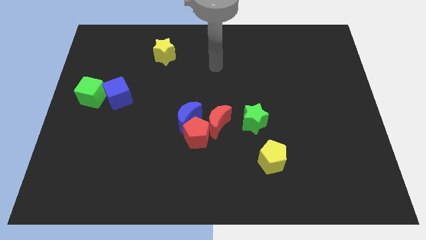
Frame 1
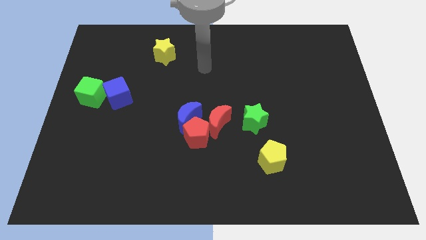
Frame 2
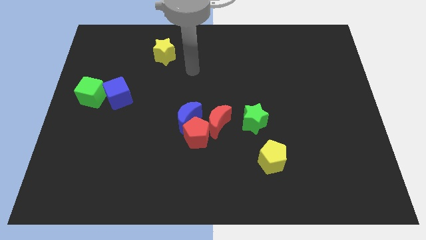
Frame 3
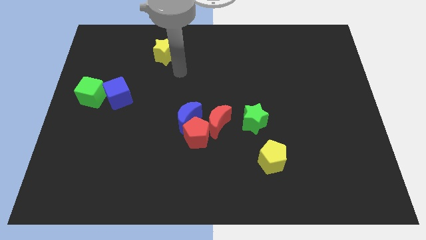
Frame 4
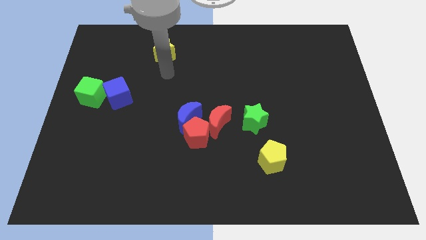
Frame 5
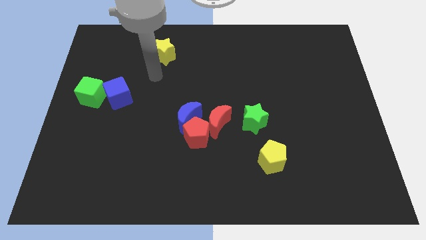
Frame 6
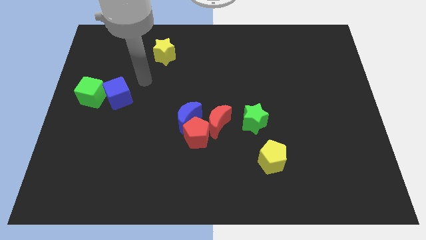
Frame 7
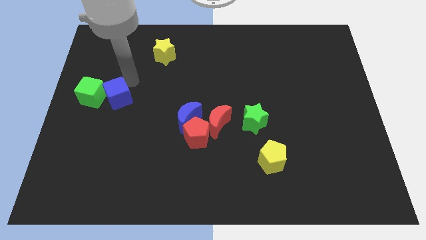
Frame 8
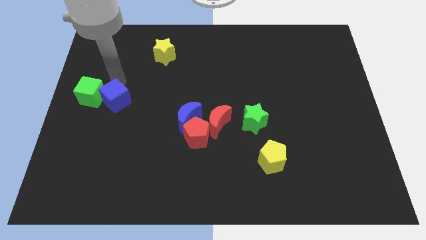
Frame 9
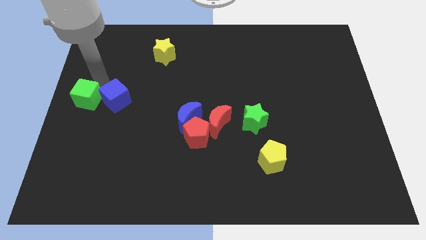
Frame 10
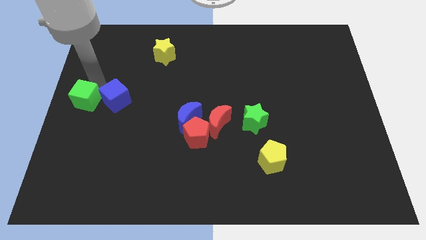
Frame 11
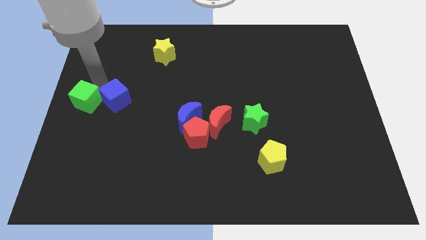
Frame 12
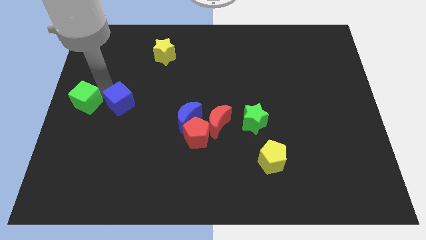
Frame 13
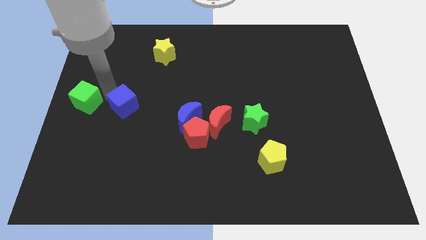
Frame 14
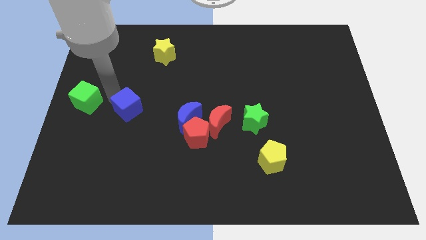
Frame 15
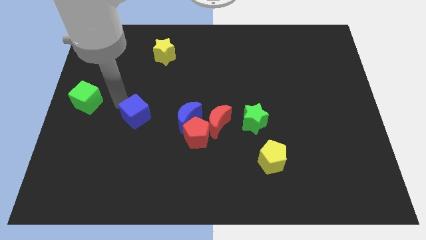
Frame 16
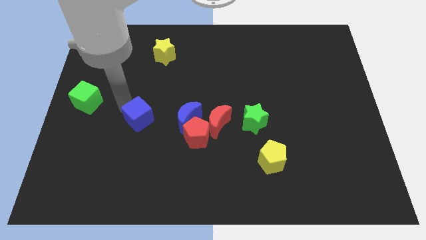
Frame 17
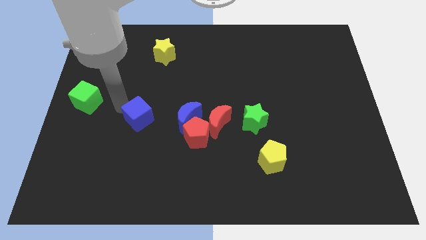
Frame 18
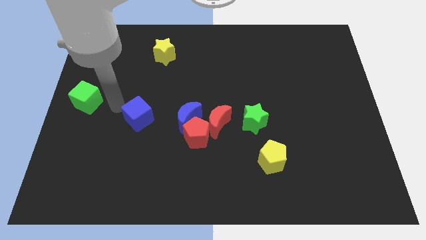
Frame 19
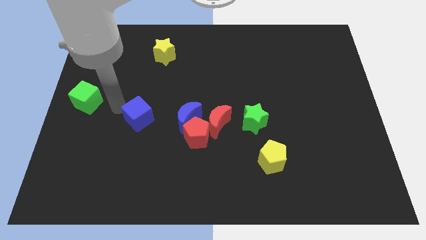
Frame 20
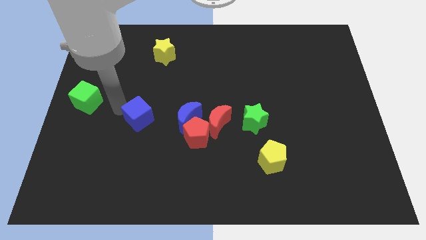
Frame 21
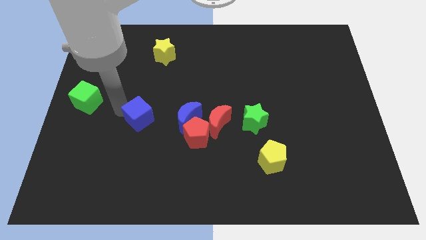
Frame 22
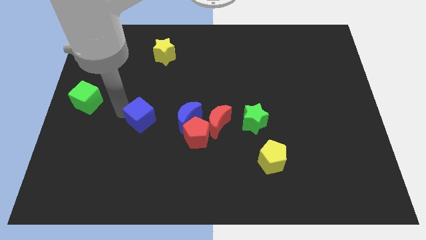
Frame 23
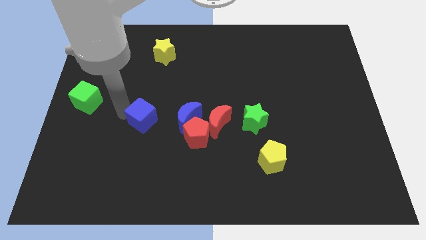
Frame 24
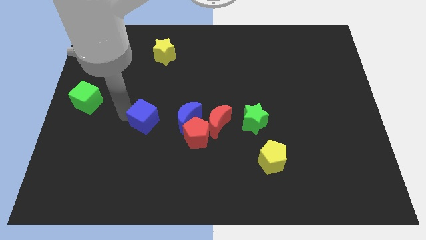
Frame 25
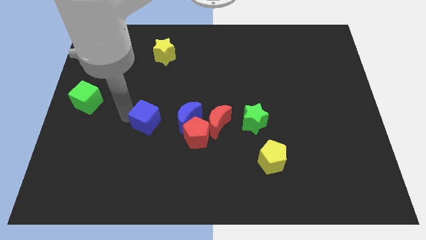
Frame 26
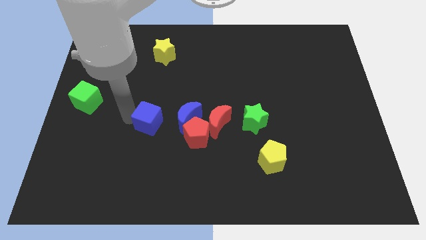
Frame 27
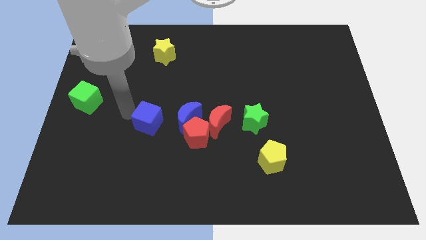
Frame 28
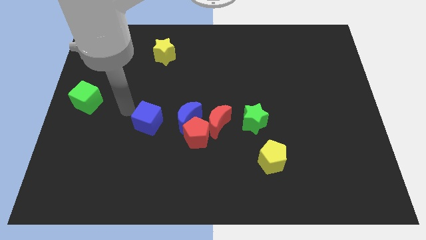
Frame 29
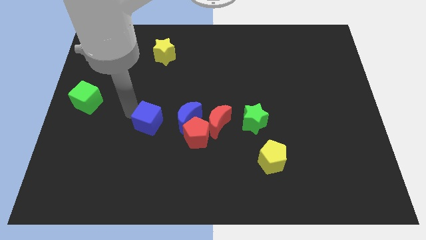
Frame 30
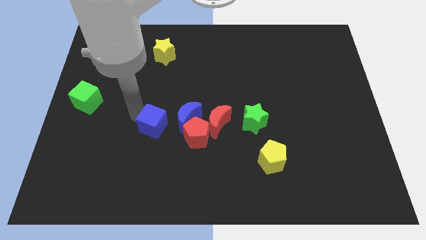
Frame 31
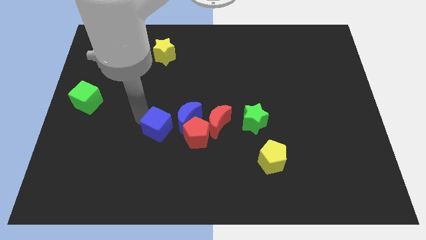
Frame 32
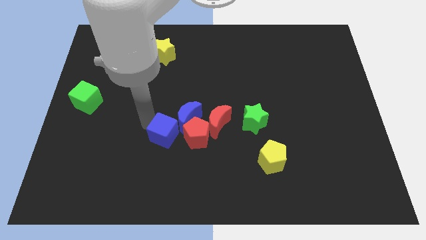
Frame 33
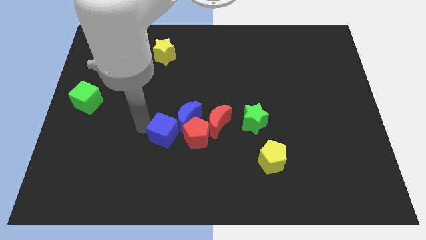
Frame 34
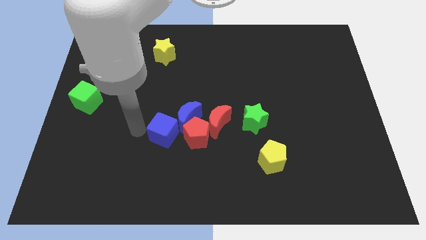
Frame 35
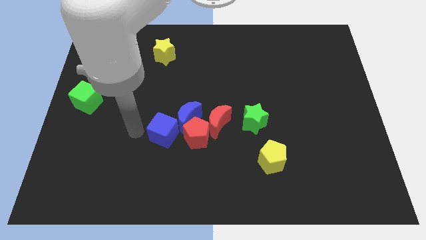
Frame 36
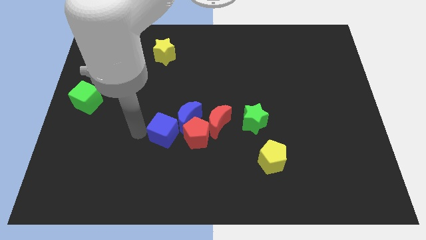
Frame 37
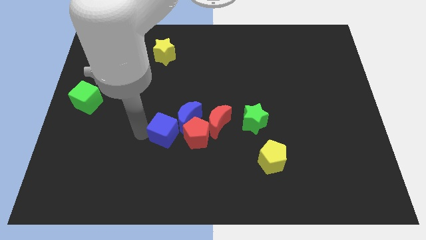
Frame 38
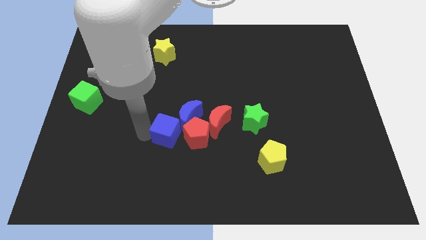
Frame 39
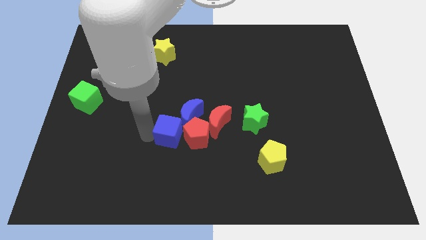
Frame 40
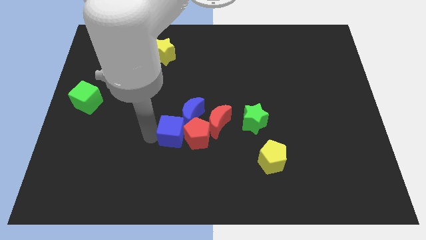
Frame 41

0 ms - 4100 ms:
slide the blue cube to the red pentagon

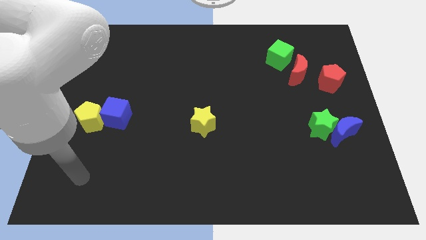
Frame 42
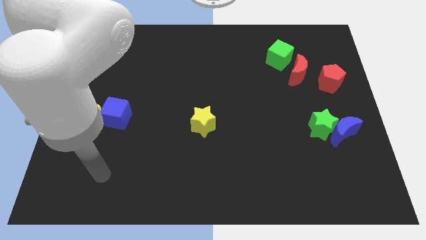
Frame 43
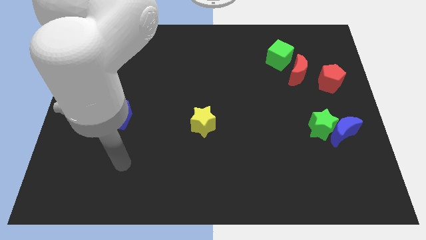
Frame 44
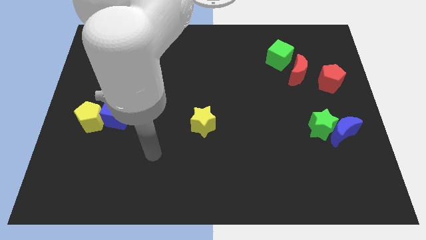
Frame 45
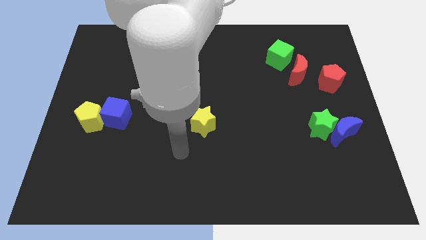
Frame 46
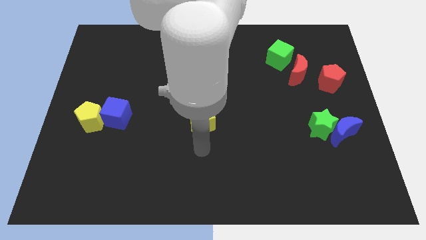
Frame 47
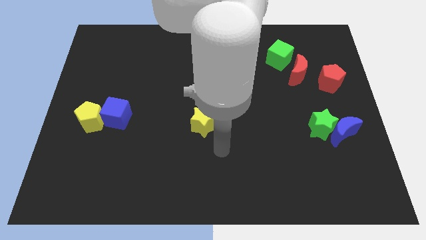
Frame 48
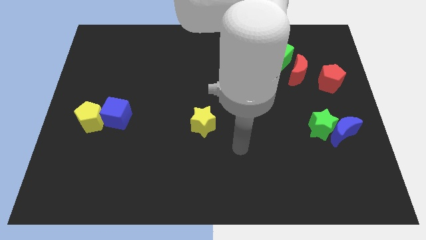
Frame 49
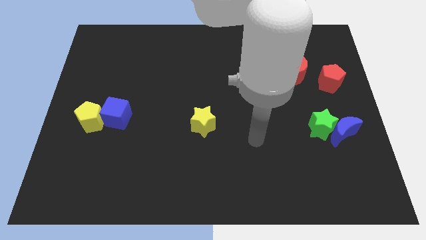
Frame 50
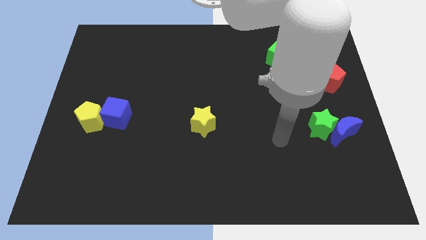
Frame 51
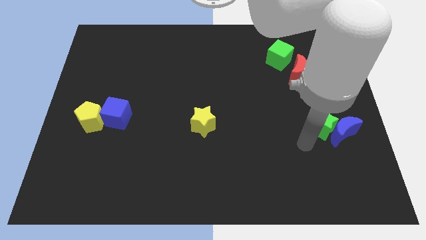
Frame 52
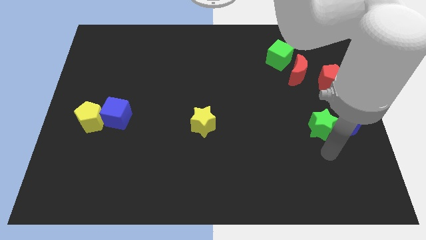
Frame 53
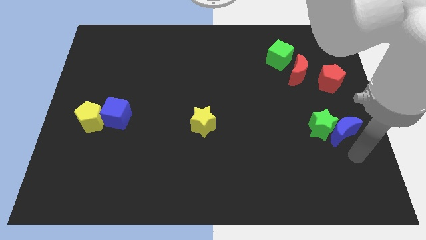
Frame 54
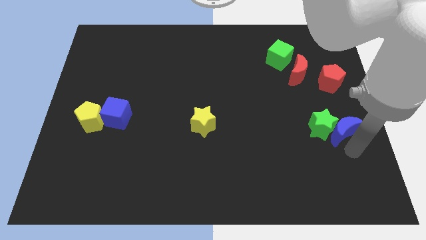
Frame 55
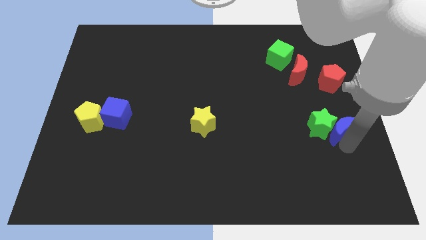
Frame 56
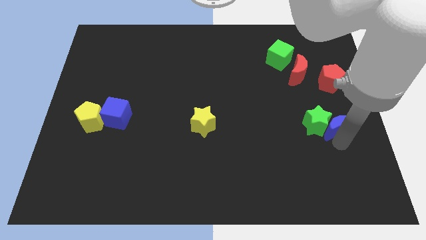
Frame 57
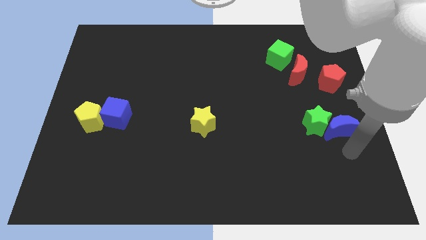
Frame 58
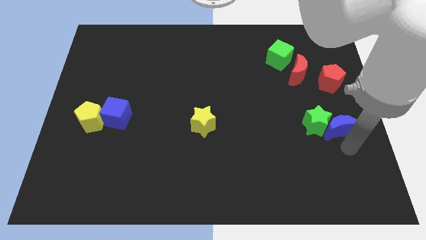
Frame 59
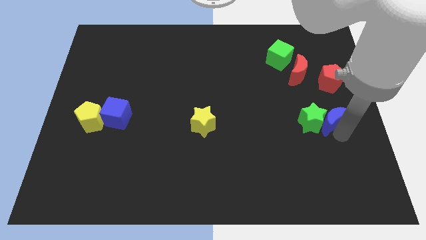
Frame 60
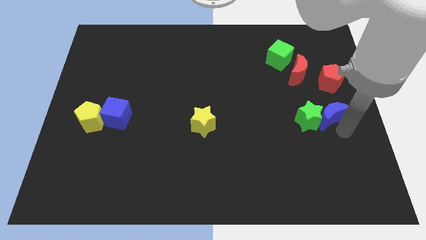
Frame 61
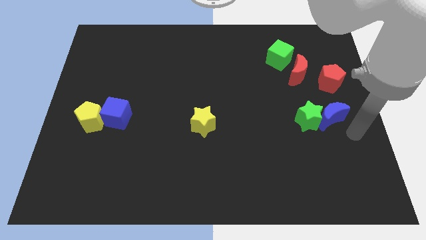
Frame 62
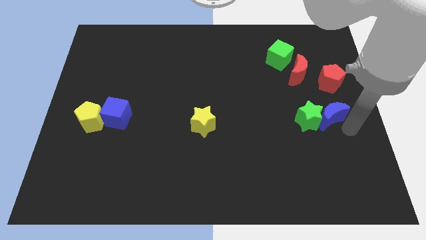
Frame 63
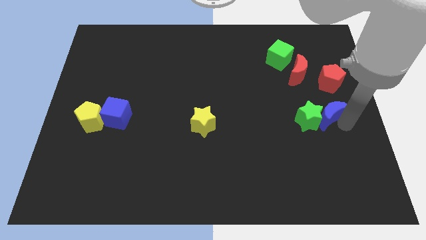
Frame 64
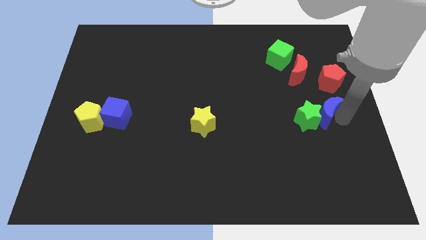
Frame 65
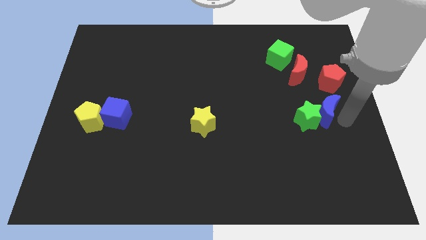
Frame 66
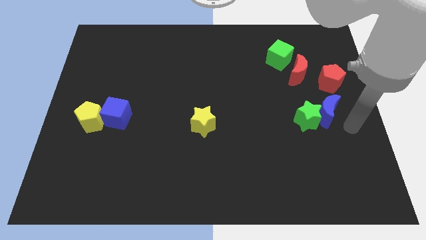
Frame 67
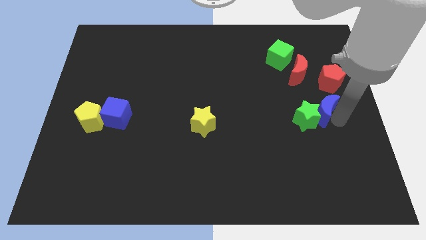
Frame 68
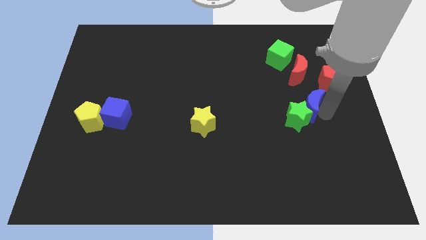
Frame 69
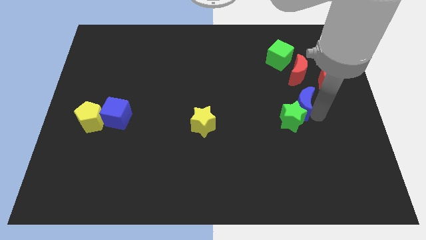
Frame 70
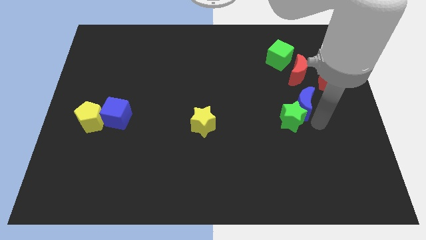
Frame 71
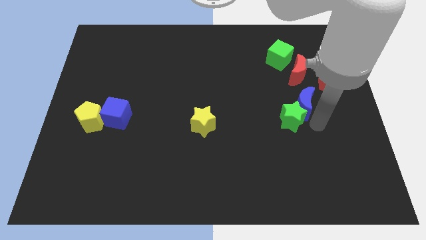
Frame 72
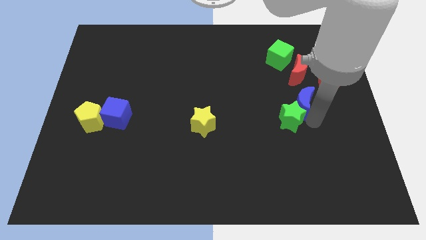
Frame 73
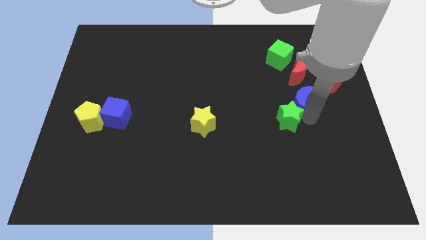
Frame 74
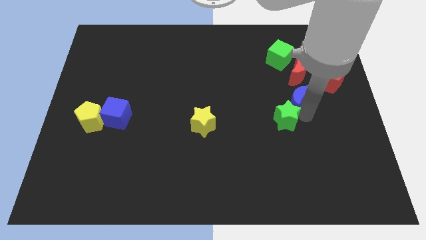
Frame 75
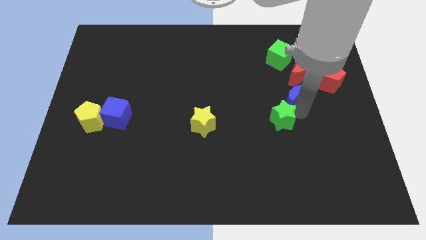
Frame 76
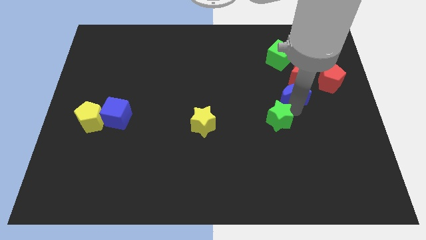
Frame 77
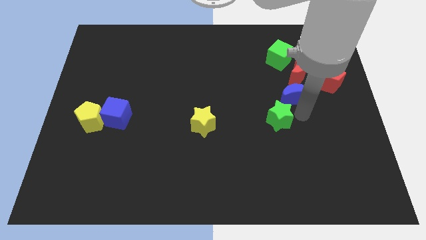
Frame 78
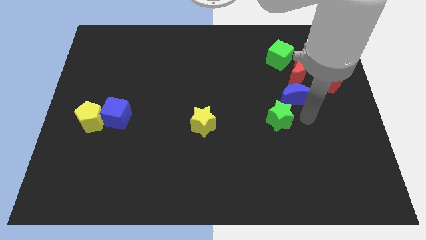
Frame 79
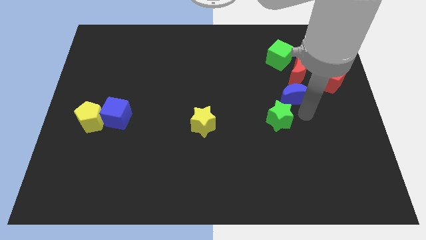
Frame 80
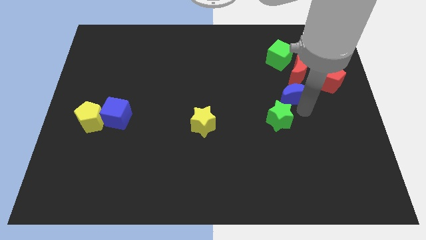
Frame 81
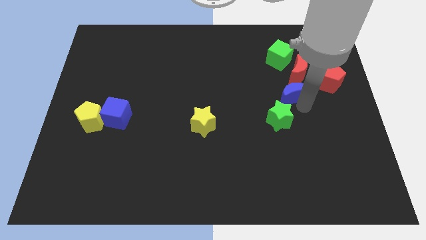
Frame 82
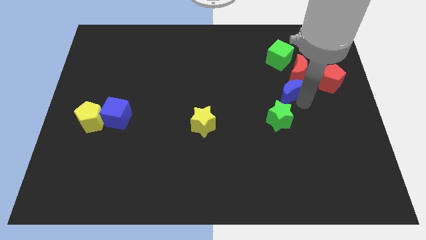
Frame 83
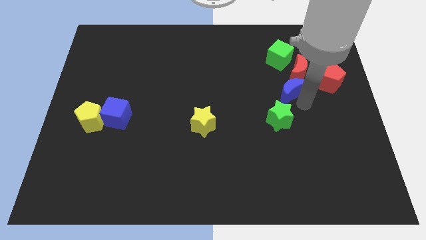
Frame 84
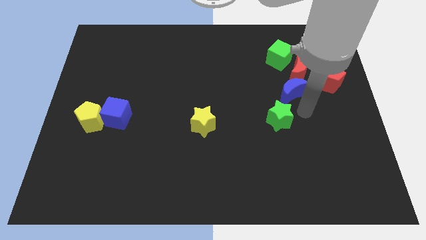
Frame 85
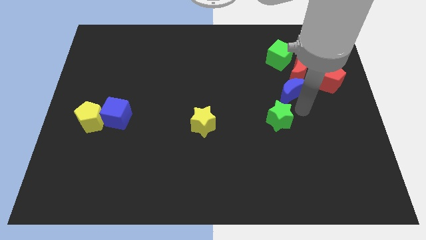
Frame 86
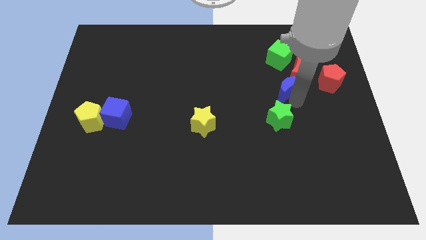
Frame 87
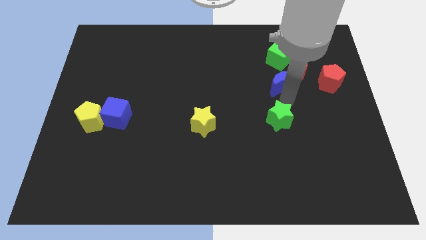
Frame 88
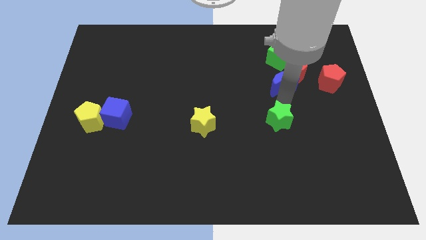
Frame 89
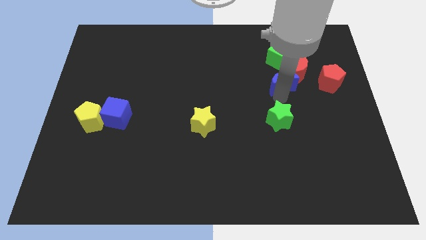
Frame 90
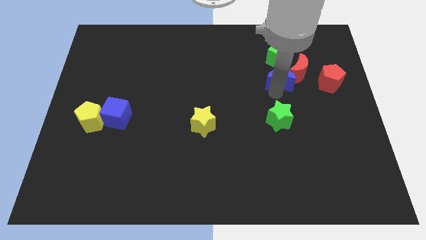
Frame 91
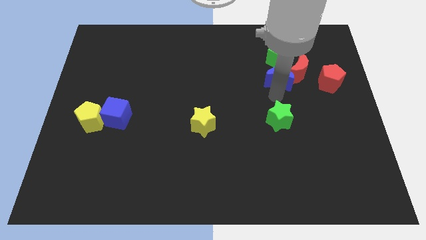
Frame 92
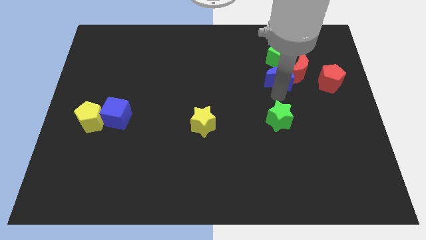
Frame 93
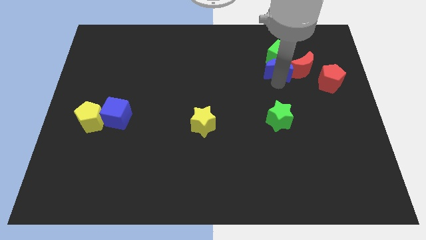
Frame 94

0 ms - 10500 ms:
push the blue moon next to the green cube
